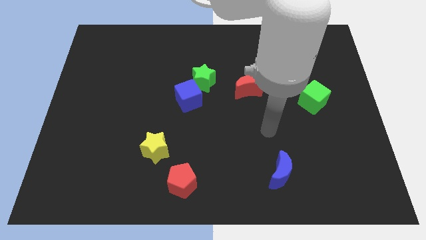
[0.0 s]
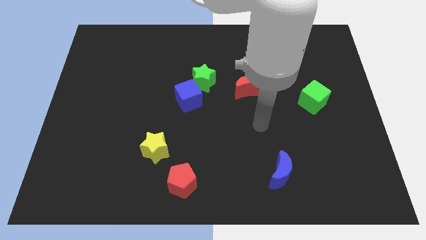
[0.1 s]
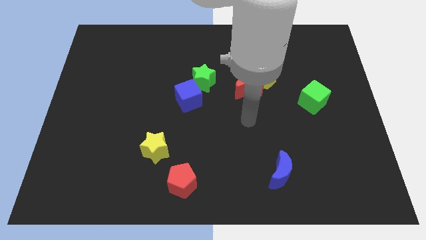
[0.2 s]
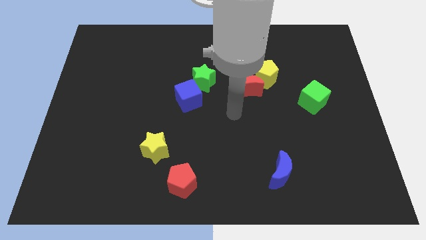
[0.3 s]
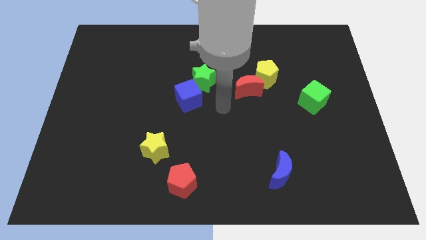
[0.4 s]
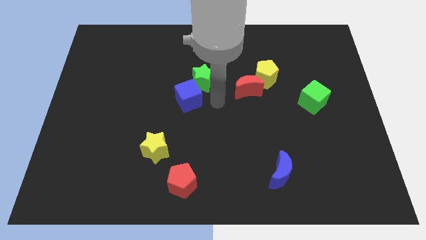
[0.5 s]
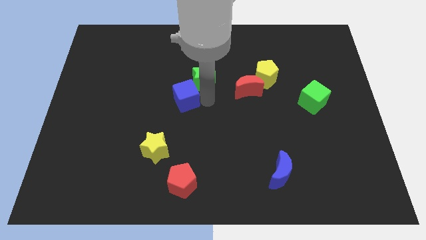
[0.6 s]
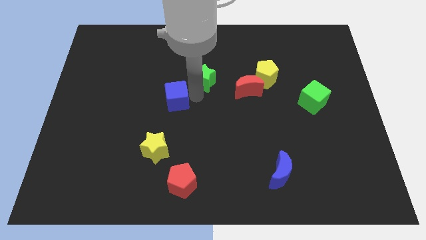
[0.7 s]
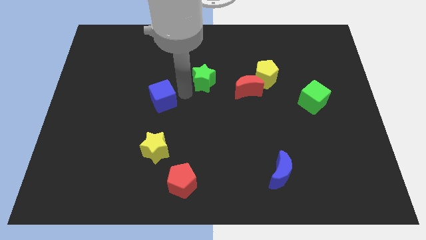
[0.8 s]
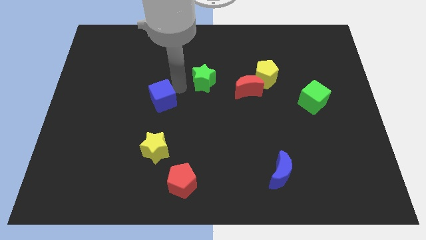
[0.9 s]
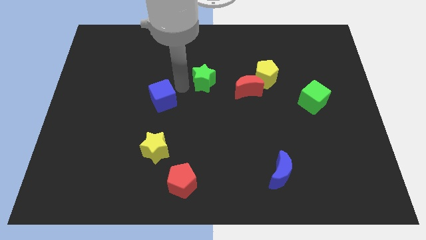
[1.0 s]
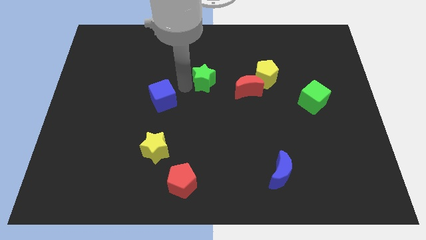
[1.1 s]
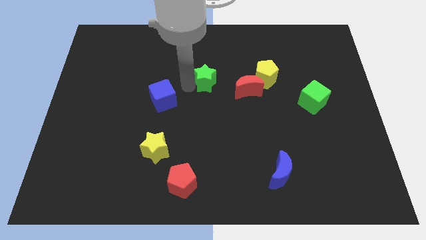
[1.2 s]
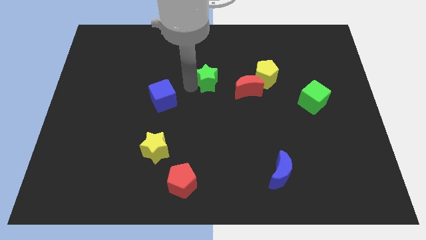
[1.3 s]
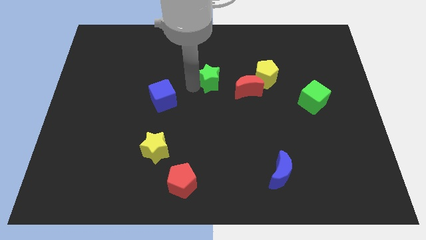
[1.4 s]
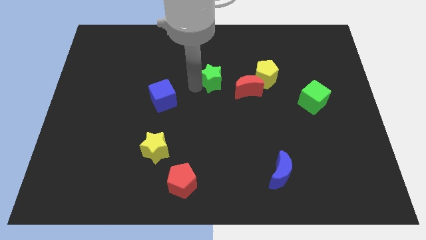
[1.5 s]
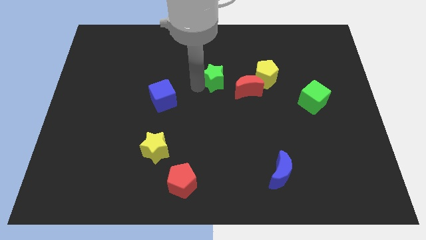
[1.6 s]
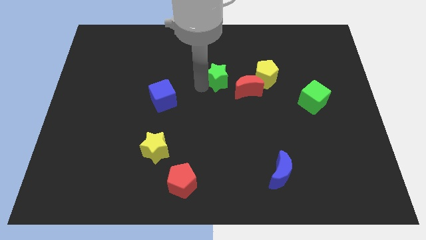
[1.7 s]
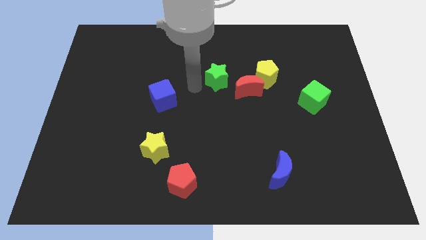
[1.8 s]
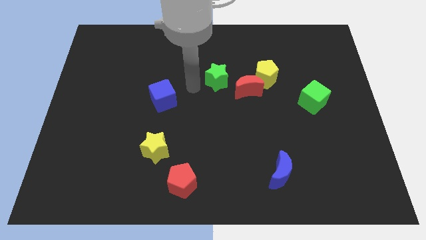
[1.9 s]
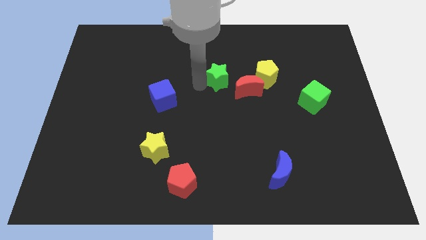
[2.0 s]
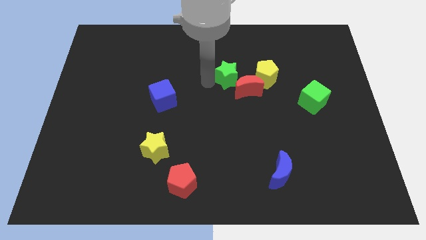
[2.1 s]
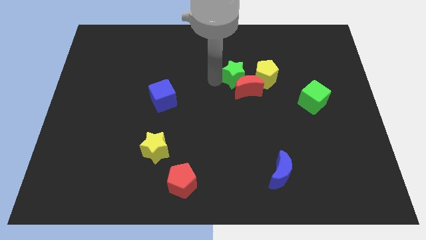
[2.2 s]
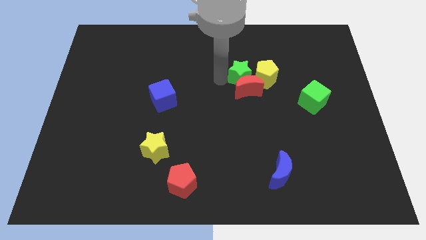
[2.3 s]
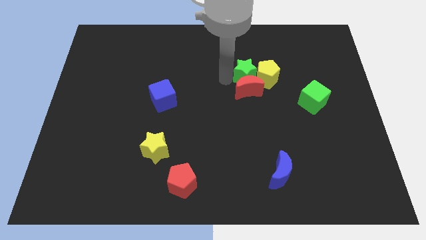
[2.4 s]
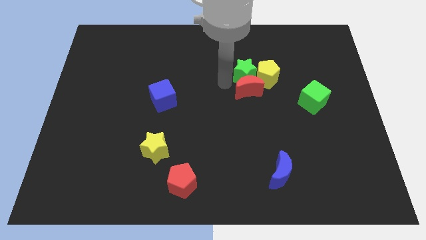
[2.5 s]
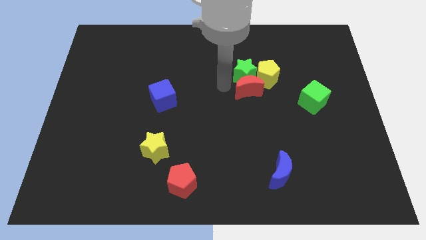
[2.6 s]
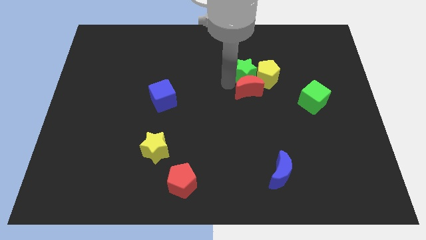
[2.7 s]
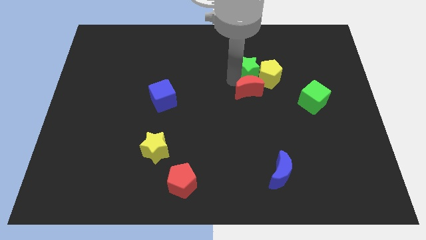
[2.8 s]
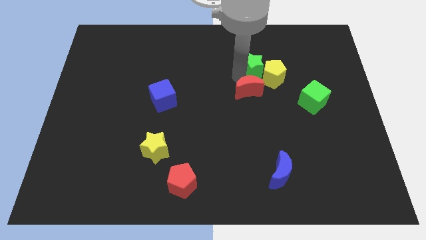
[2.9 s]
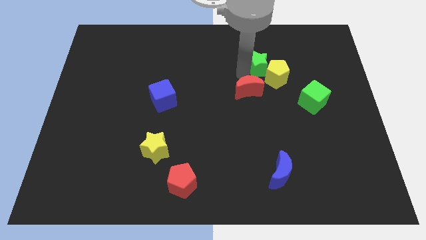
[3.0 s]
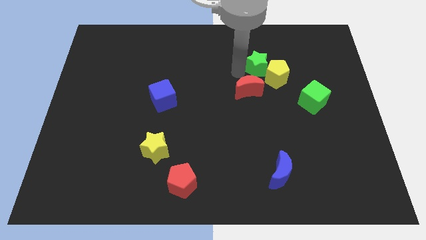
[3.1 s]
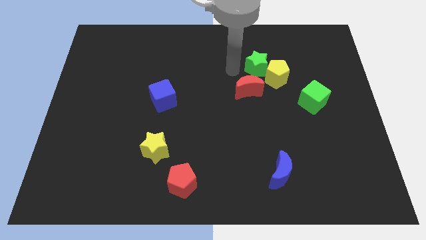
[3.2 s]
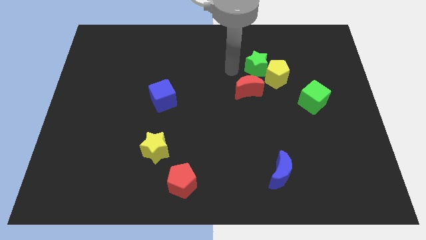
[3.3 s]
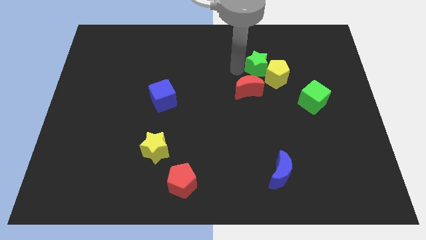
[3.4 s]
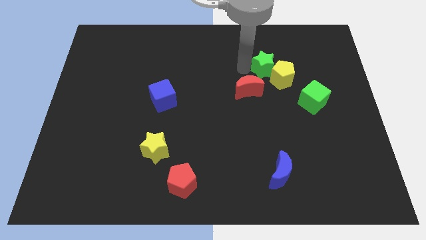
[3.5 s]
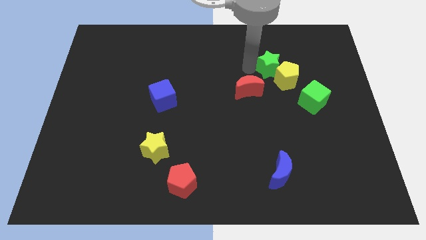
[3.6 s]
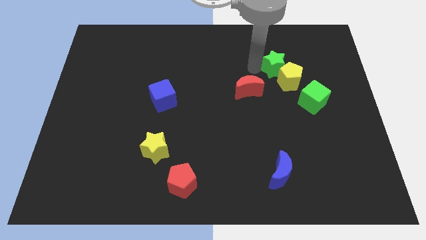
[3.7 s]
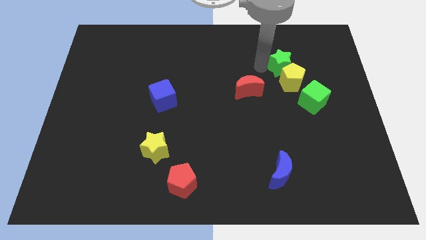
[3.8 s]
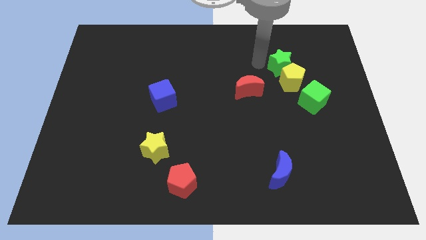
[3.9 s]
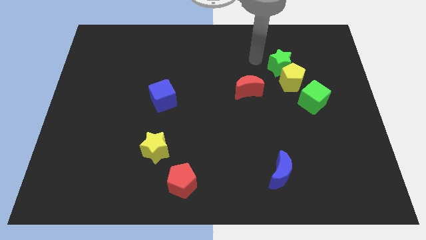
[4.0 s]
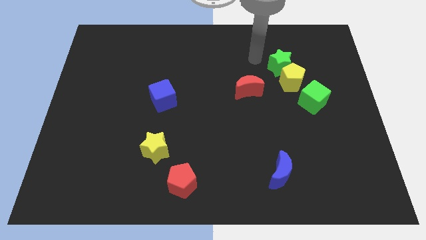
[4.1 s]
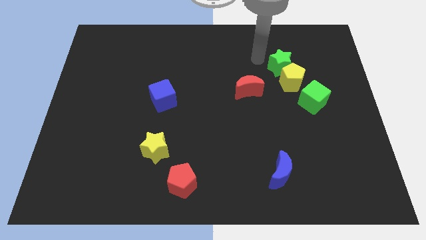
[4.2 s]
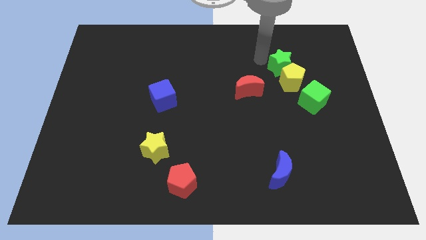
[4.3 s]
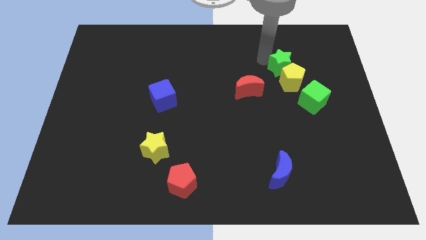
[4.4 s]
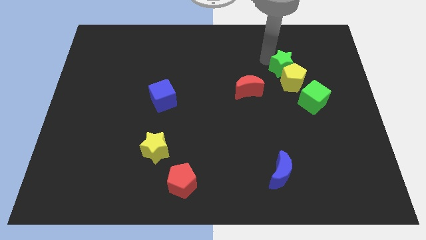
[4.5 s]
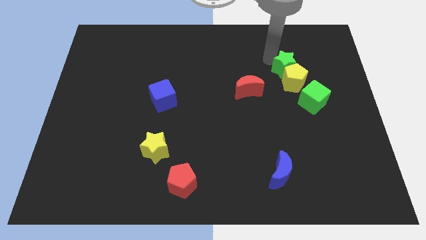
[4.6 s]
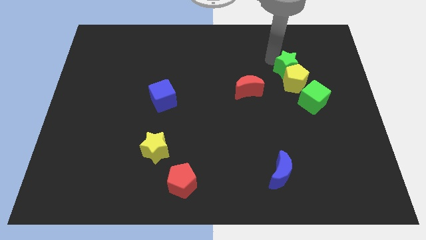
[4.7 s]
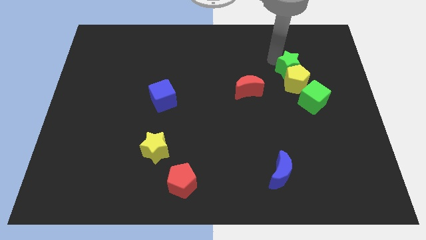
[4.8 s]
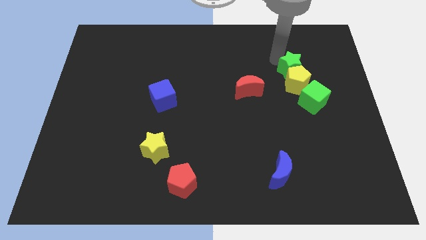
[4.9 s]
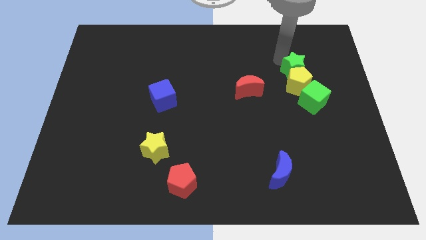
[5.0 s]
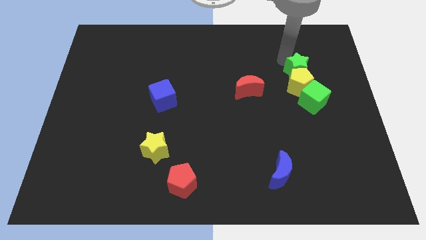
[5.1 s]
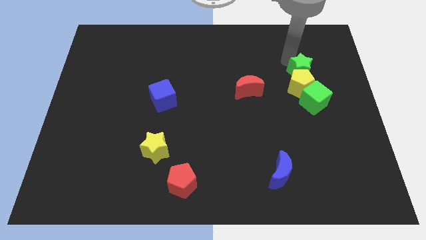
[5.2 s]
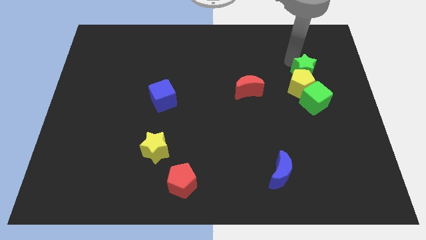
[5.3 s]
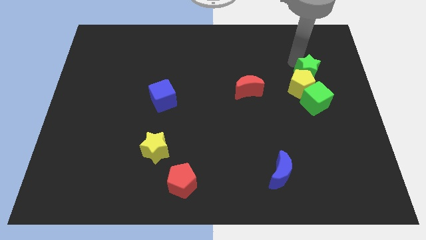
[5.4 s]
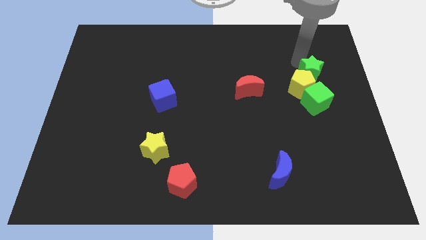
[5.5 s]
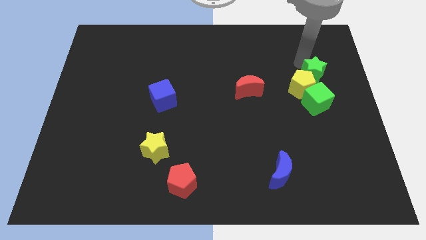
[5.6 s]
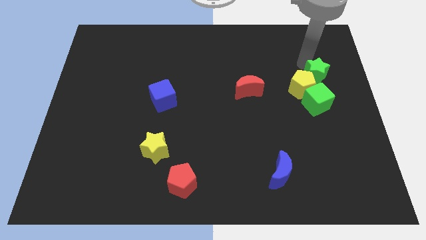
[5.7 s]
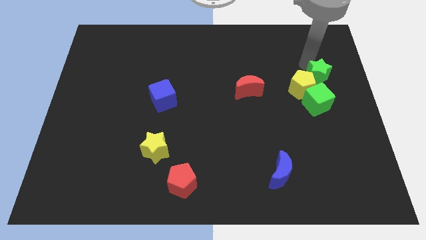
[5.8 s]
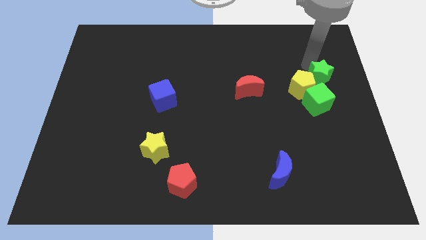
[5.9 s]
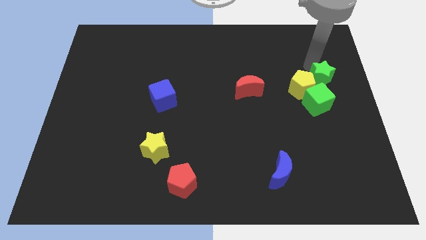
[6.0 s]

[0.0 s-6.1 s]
slide the green star to the center right

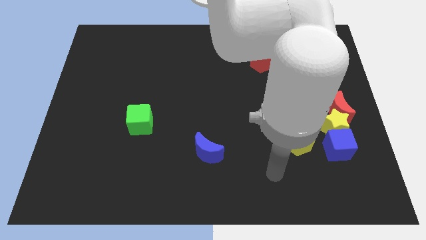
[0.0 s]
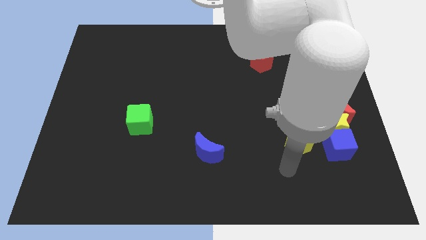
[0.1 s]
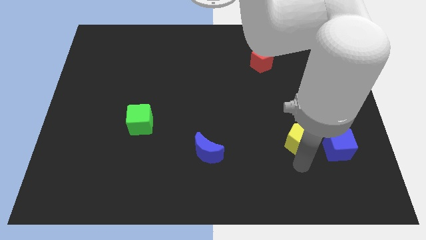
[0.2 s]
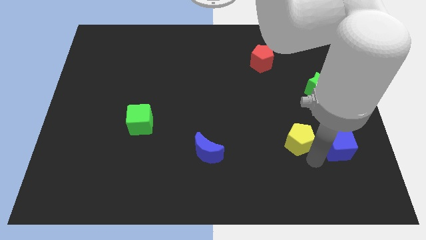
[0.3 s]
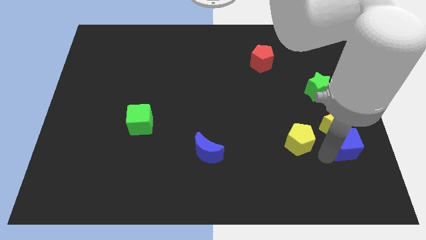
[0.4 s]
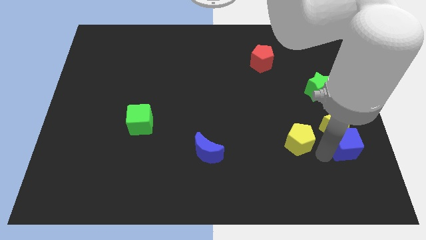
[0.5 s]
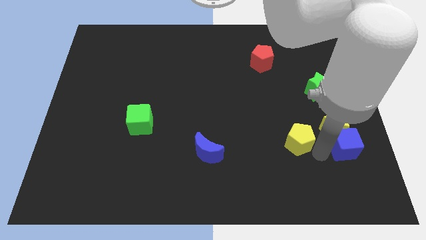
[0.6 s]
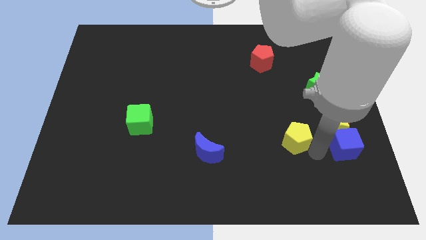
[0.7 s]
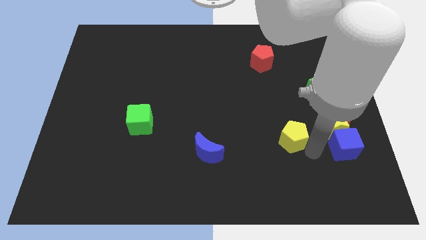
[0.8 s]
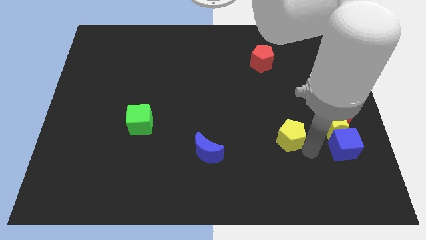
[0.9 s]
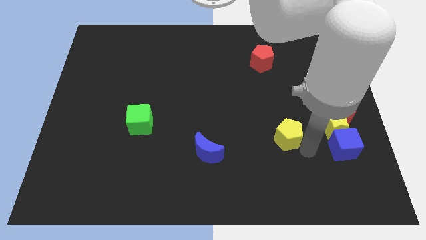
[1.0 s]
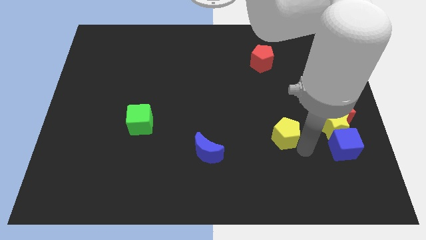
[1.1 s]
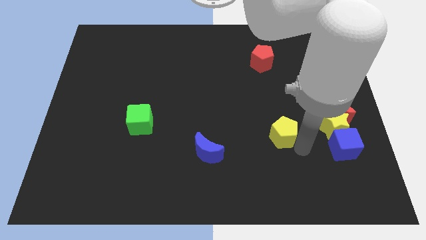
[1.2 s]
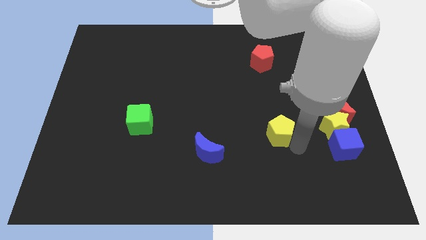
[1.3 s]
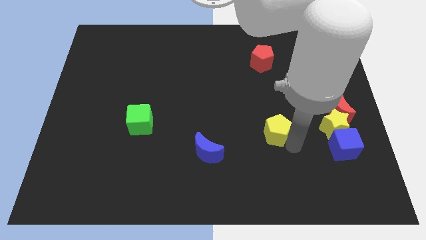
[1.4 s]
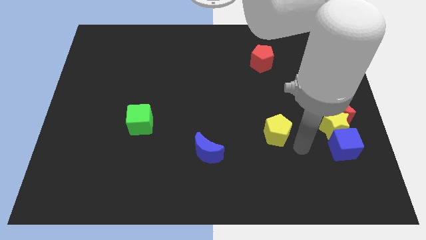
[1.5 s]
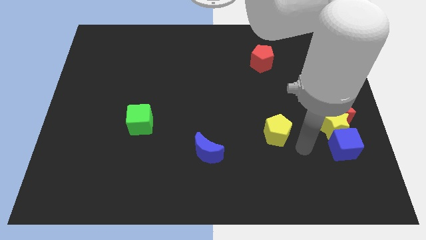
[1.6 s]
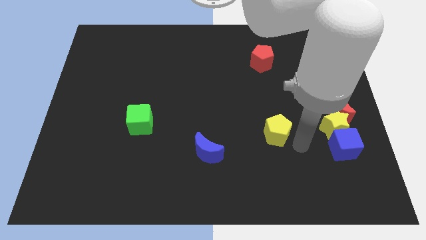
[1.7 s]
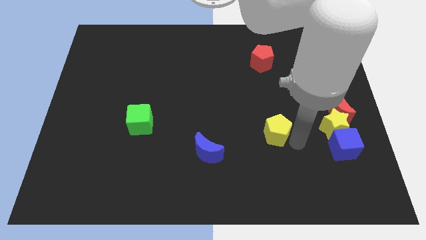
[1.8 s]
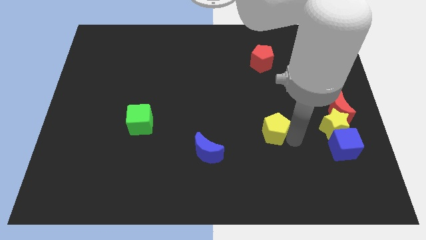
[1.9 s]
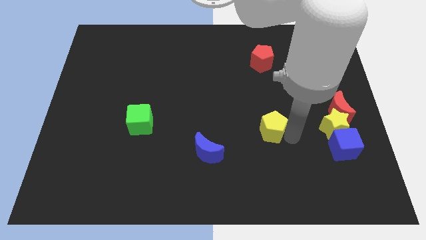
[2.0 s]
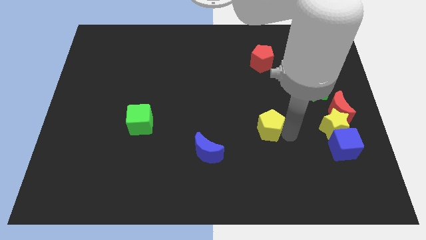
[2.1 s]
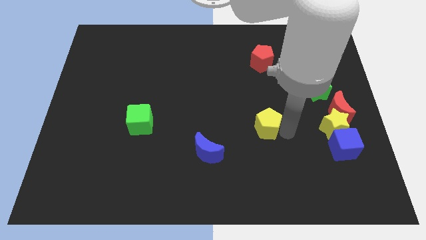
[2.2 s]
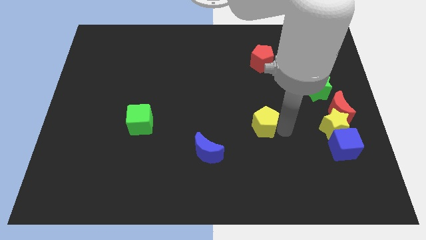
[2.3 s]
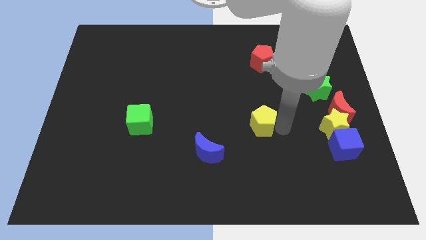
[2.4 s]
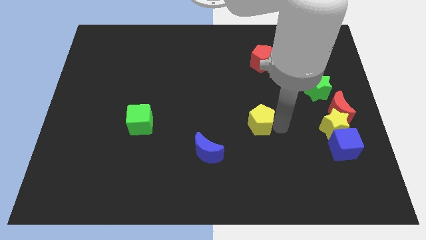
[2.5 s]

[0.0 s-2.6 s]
move the yellow pentagon to the center of the board
